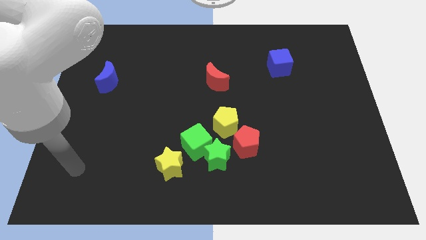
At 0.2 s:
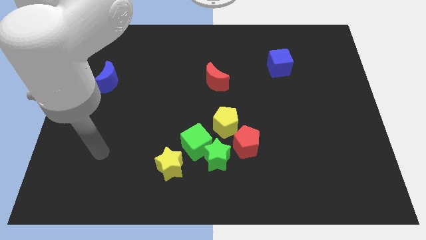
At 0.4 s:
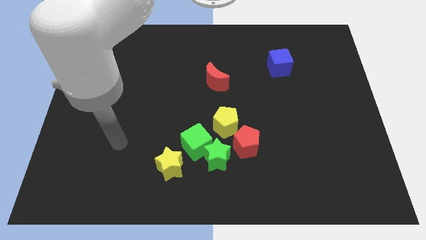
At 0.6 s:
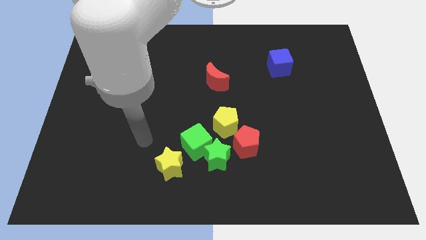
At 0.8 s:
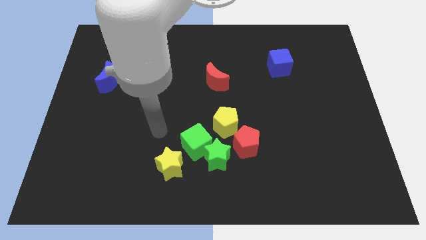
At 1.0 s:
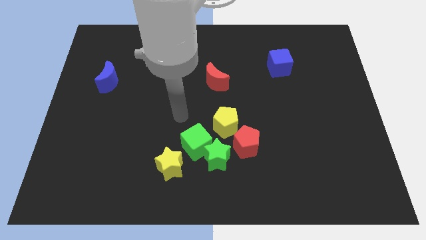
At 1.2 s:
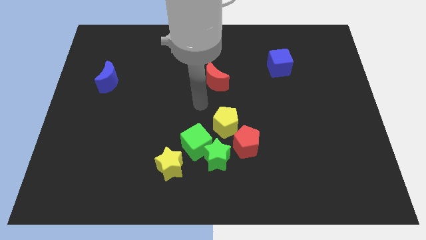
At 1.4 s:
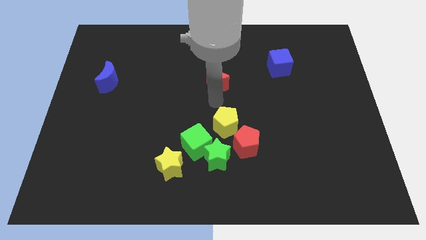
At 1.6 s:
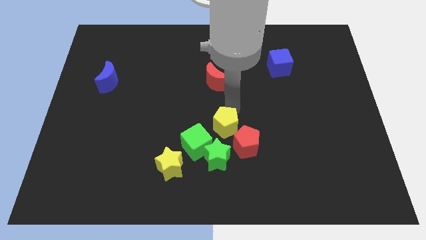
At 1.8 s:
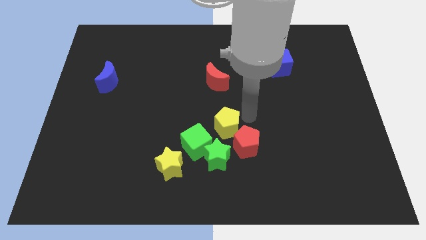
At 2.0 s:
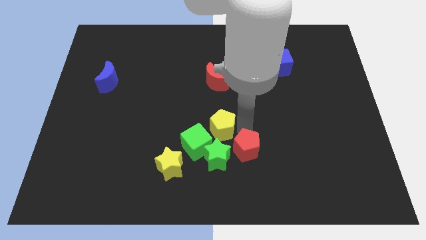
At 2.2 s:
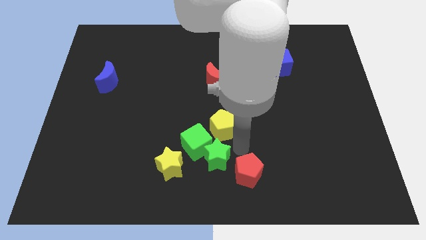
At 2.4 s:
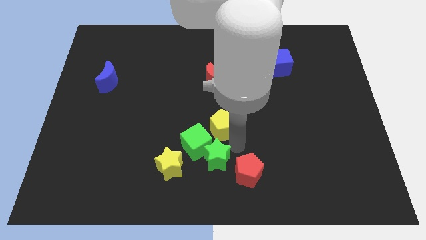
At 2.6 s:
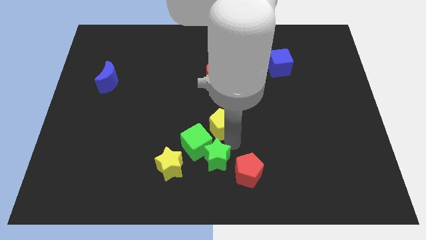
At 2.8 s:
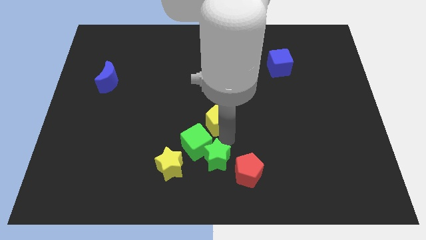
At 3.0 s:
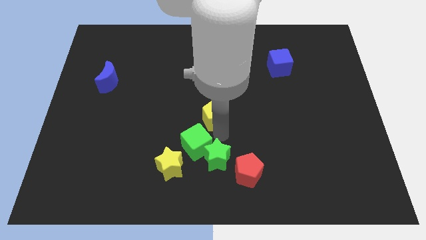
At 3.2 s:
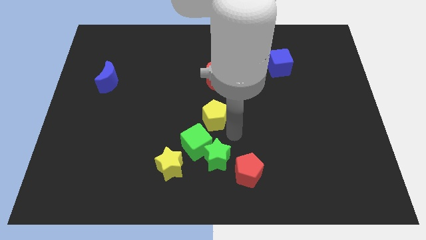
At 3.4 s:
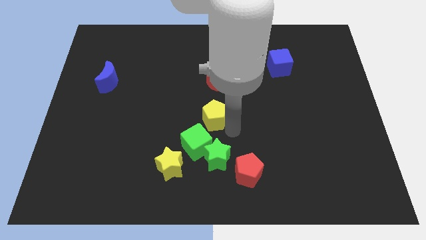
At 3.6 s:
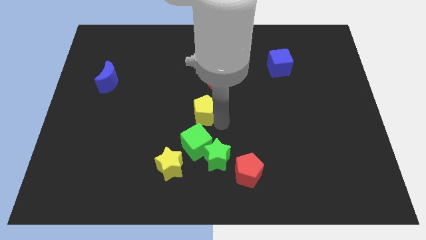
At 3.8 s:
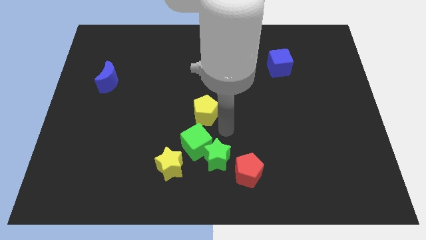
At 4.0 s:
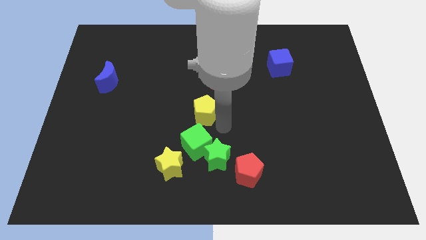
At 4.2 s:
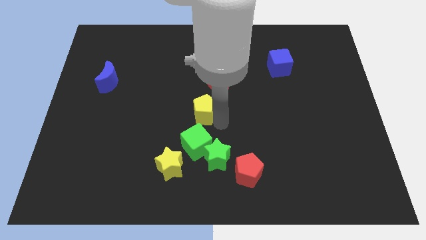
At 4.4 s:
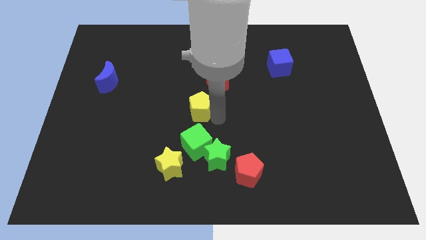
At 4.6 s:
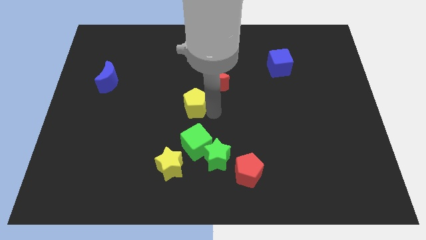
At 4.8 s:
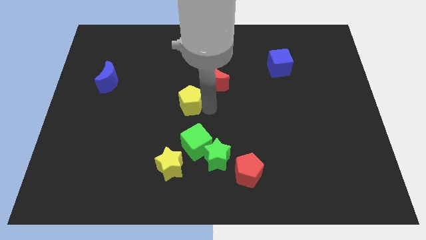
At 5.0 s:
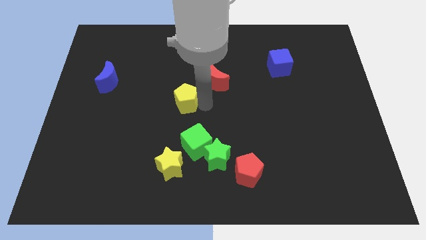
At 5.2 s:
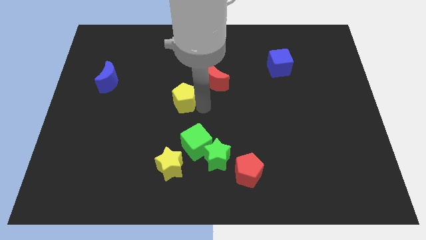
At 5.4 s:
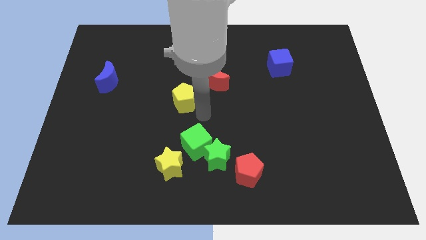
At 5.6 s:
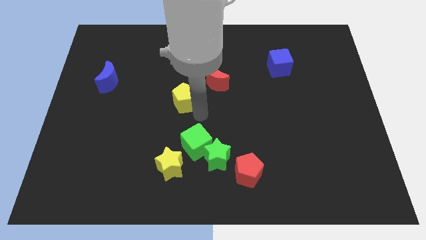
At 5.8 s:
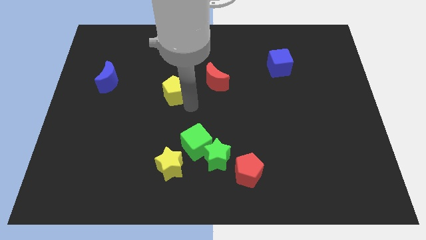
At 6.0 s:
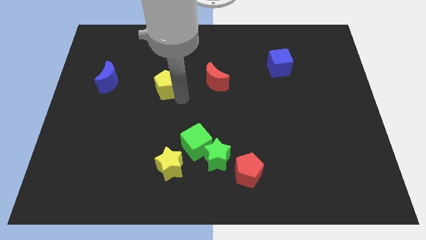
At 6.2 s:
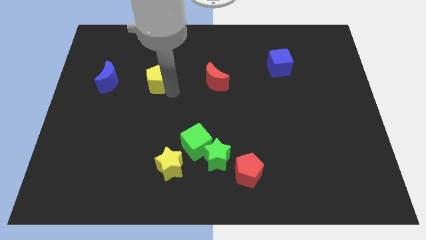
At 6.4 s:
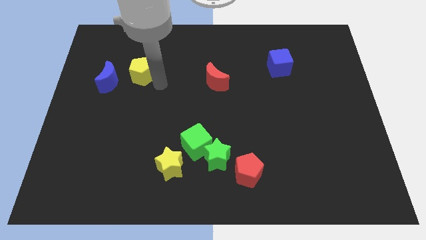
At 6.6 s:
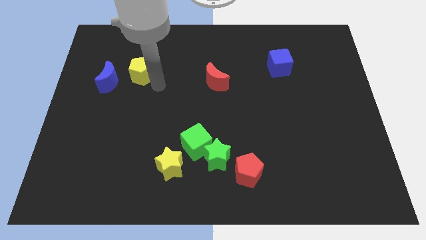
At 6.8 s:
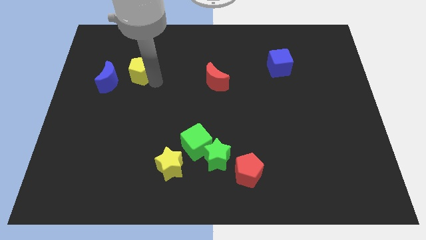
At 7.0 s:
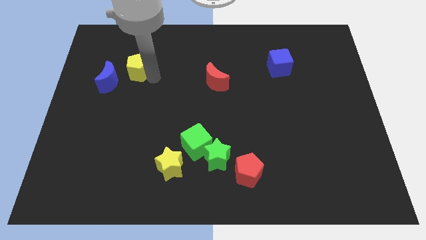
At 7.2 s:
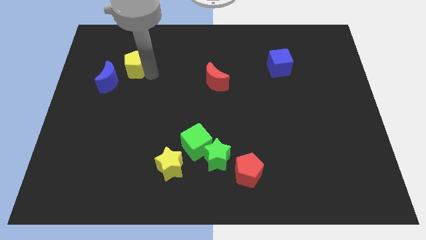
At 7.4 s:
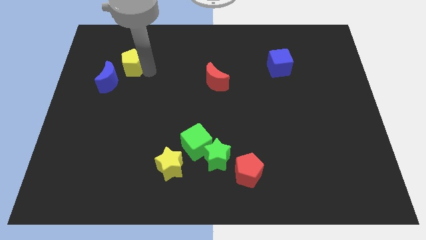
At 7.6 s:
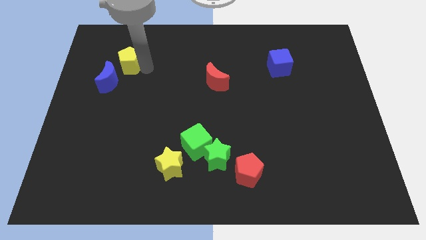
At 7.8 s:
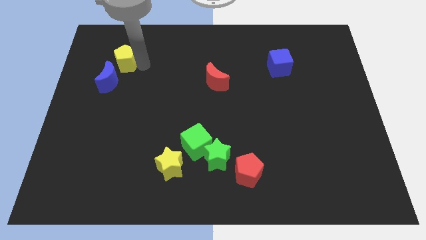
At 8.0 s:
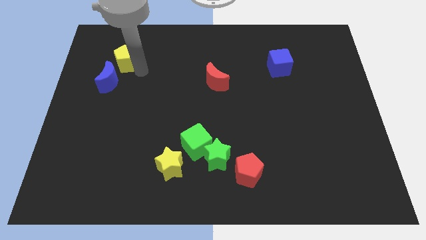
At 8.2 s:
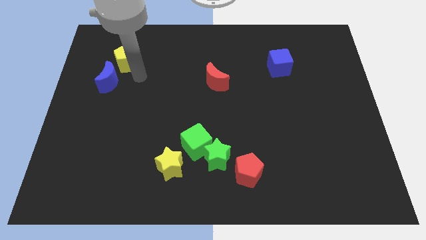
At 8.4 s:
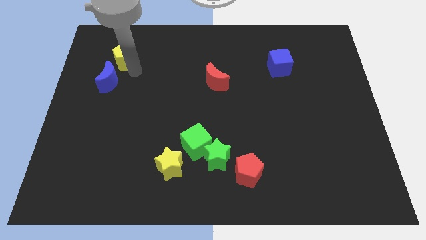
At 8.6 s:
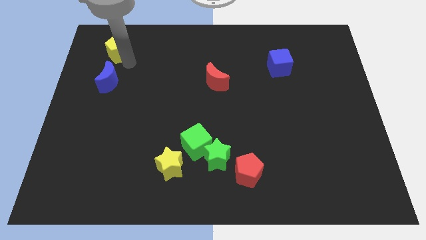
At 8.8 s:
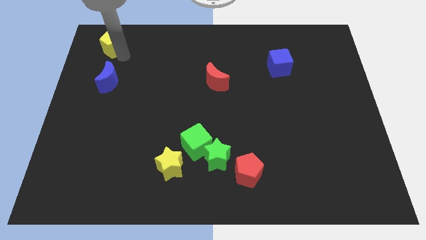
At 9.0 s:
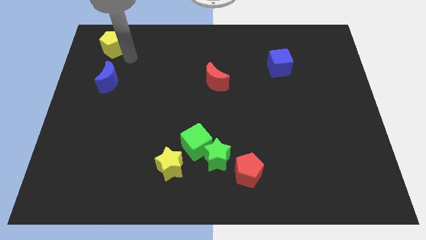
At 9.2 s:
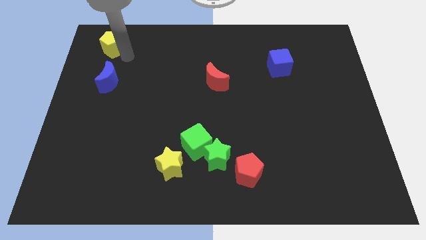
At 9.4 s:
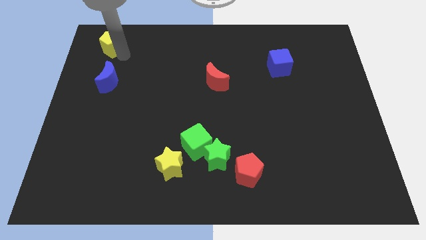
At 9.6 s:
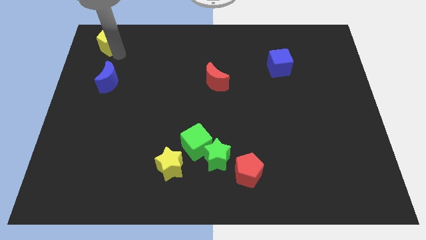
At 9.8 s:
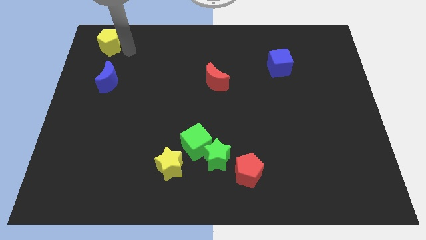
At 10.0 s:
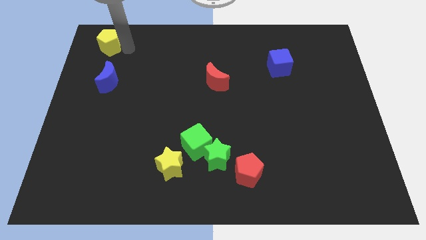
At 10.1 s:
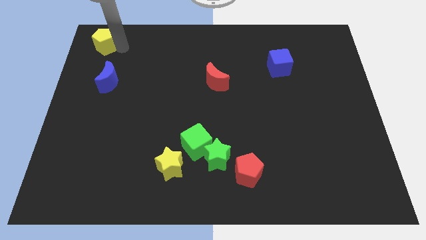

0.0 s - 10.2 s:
slide the yellow pentagon to the top left corner

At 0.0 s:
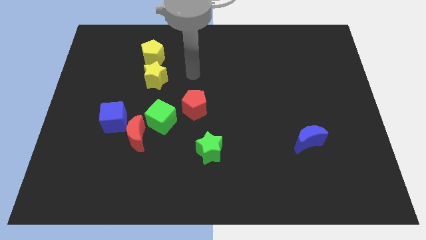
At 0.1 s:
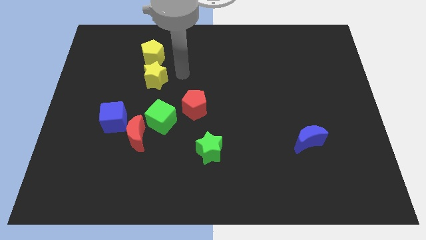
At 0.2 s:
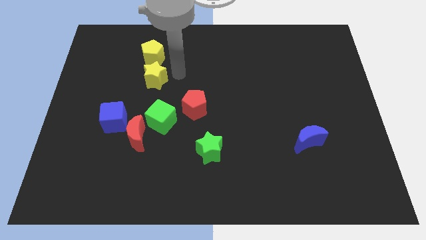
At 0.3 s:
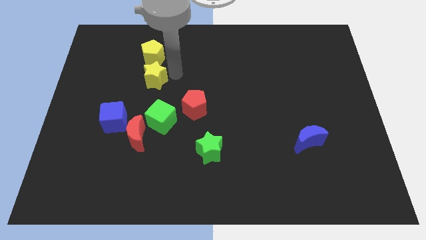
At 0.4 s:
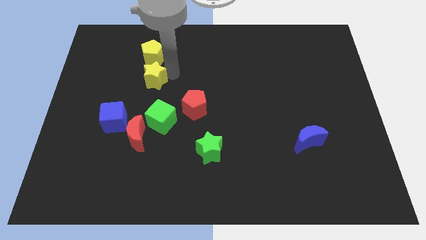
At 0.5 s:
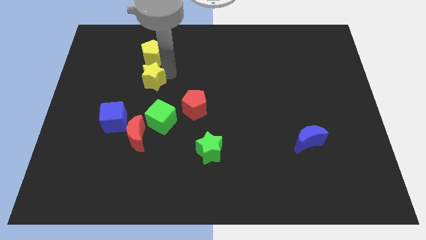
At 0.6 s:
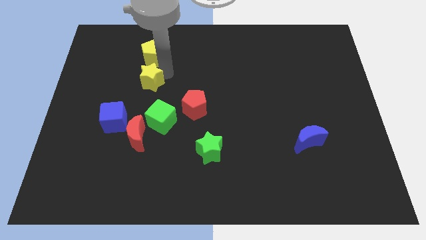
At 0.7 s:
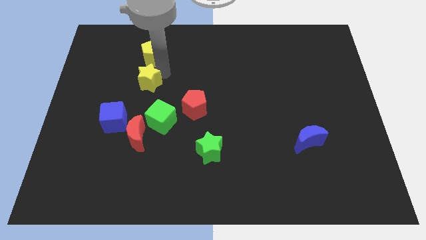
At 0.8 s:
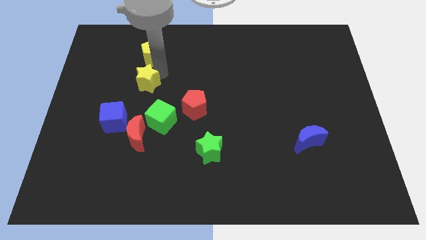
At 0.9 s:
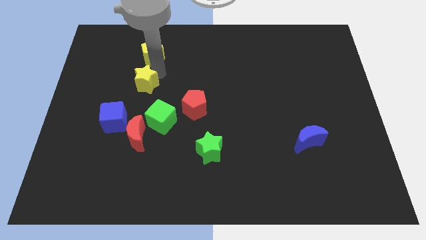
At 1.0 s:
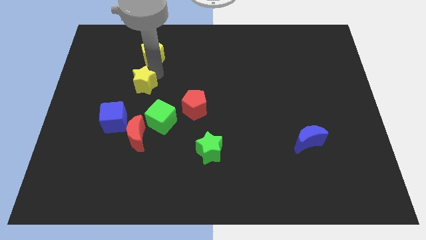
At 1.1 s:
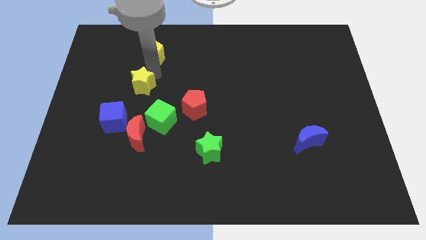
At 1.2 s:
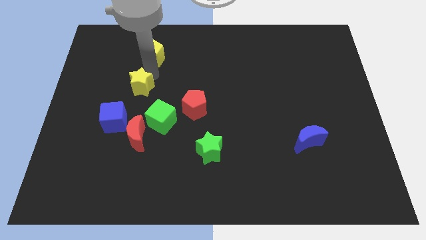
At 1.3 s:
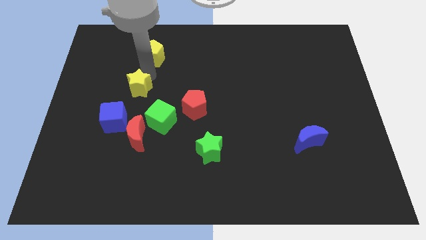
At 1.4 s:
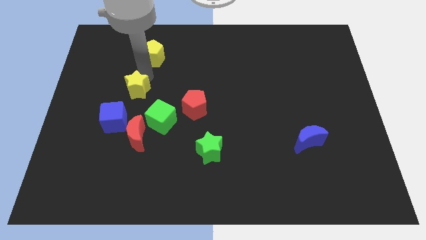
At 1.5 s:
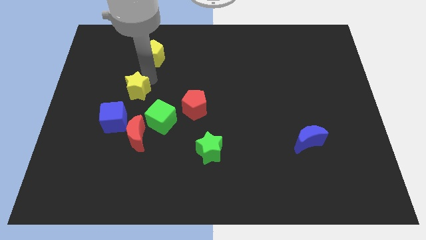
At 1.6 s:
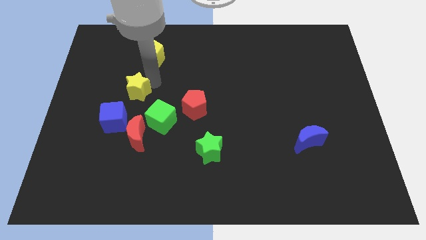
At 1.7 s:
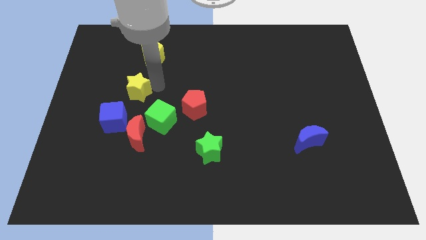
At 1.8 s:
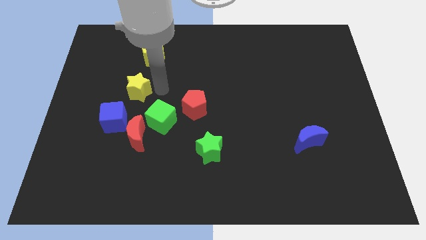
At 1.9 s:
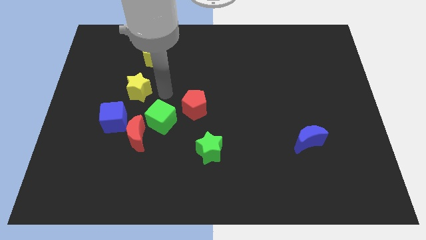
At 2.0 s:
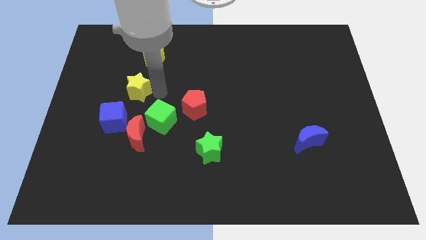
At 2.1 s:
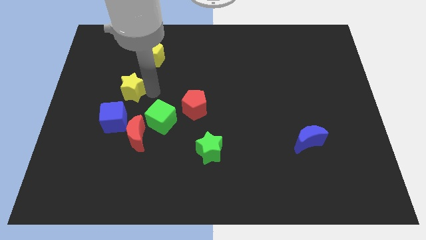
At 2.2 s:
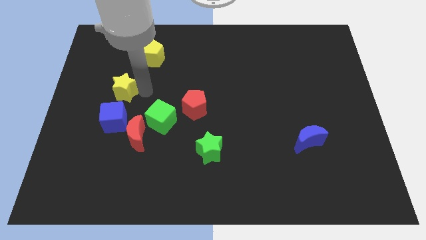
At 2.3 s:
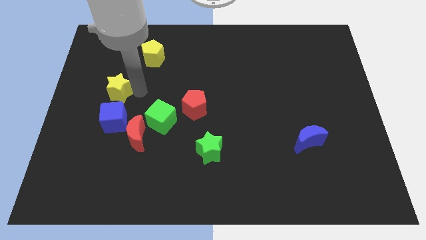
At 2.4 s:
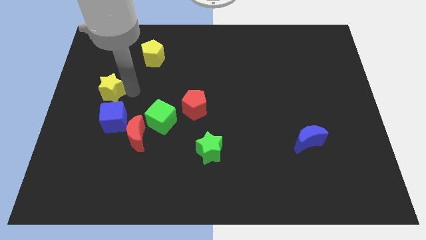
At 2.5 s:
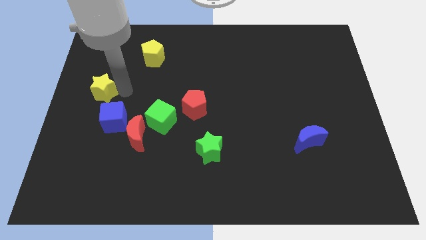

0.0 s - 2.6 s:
slide the yellow star to the center left
